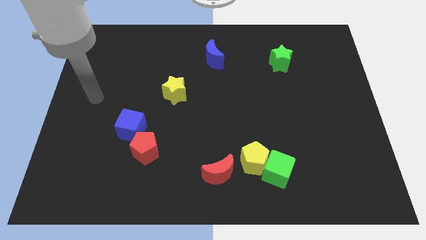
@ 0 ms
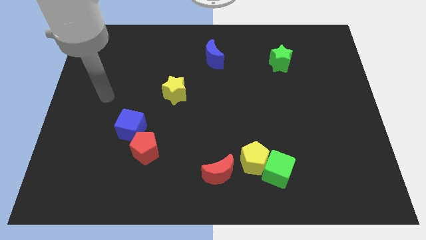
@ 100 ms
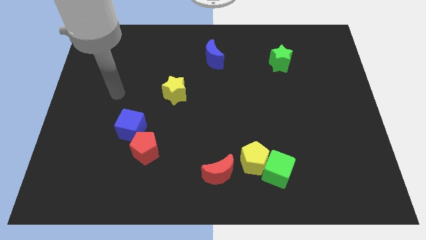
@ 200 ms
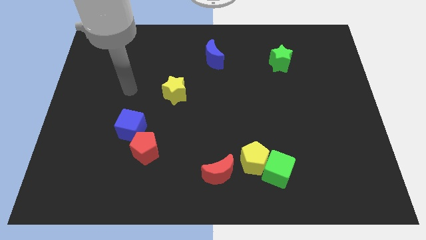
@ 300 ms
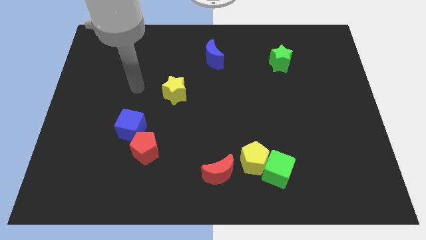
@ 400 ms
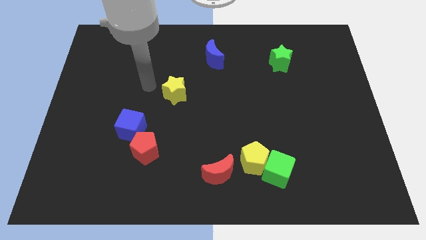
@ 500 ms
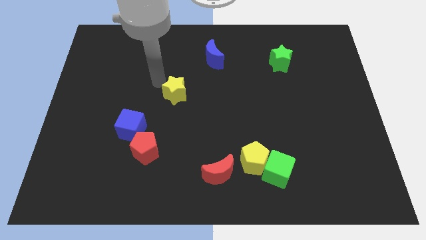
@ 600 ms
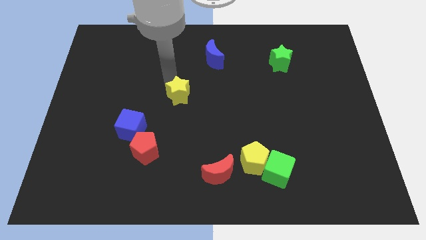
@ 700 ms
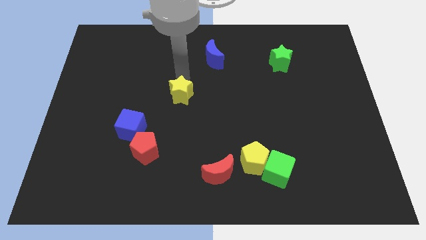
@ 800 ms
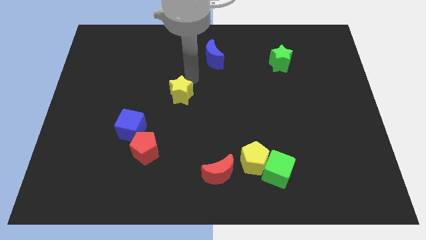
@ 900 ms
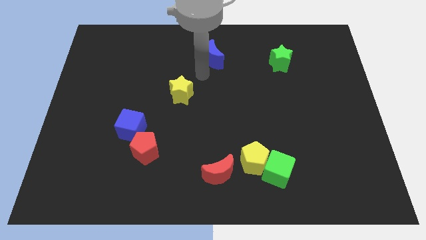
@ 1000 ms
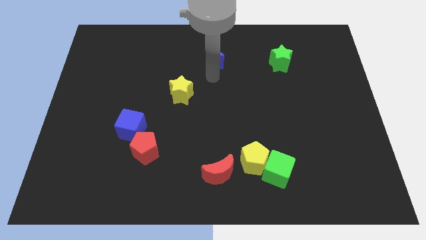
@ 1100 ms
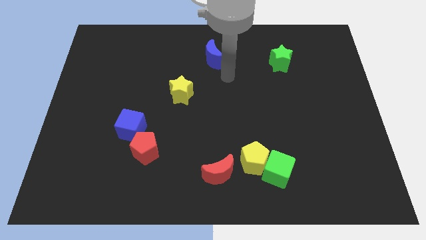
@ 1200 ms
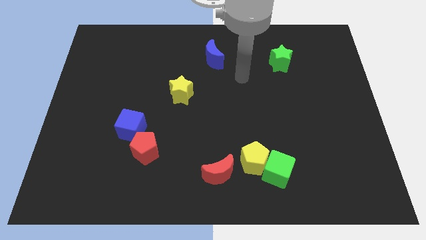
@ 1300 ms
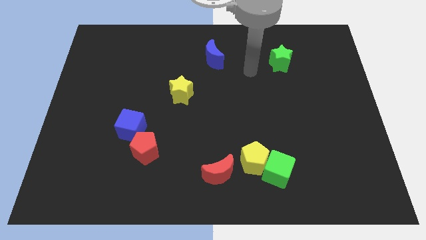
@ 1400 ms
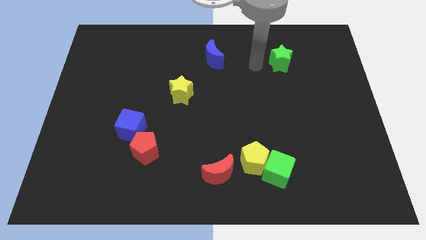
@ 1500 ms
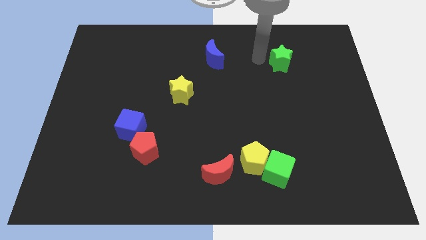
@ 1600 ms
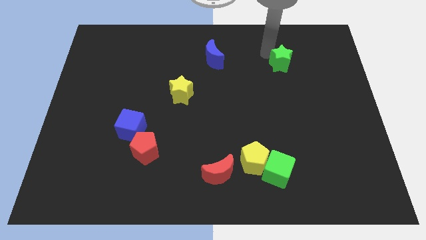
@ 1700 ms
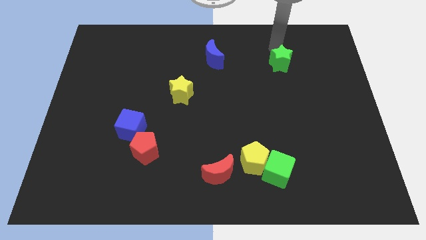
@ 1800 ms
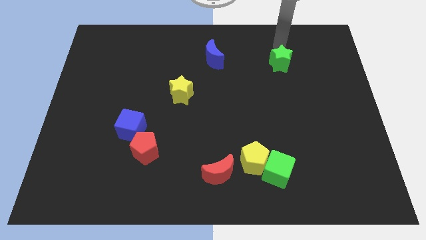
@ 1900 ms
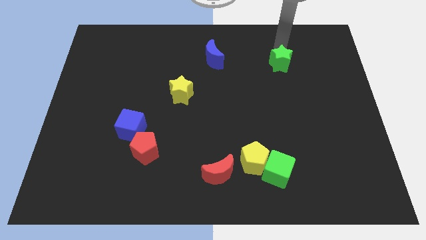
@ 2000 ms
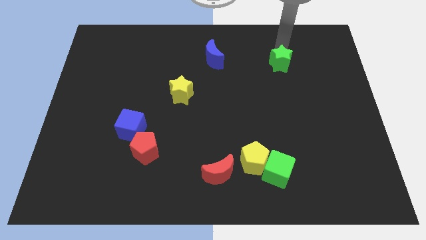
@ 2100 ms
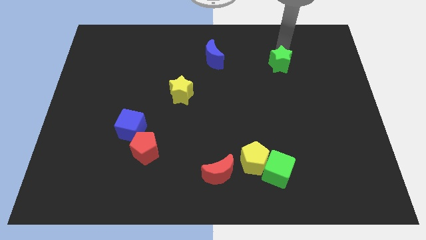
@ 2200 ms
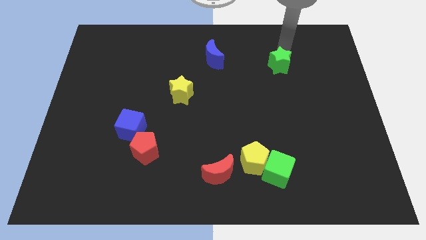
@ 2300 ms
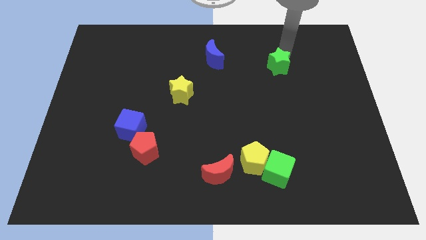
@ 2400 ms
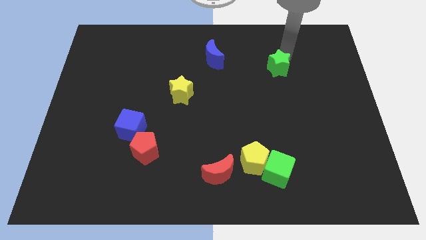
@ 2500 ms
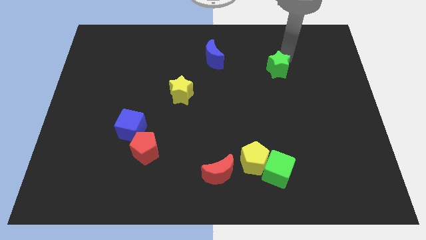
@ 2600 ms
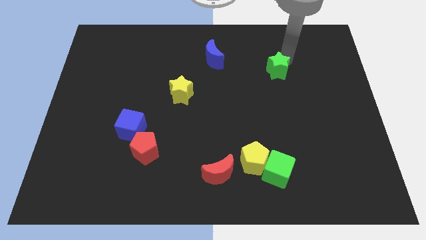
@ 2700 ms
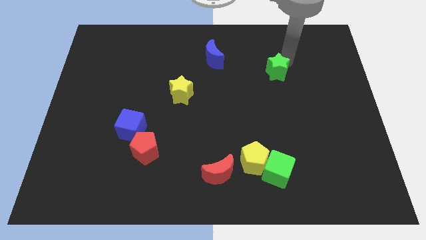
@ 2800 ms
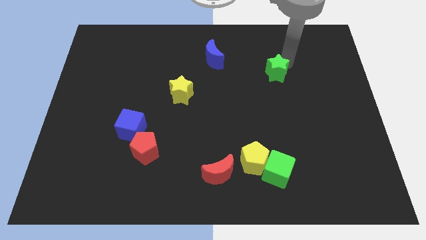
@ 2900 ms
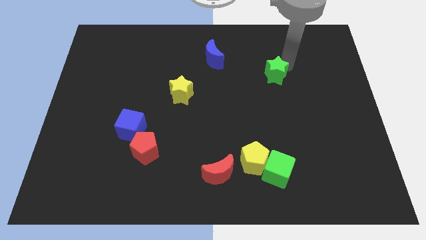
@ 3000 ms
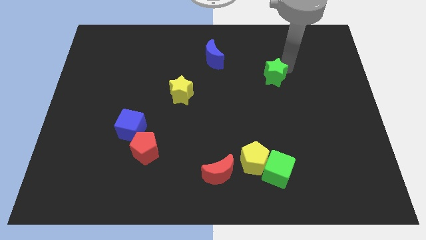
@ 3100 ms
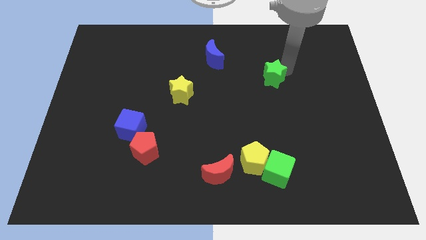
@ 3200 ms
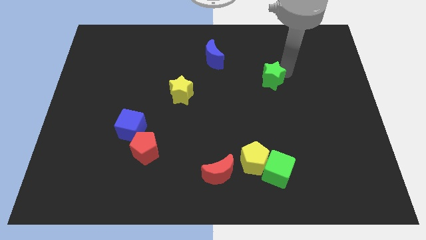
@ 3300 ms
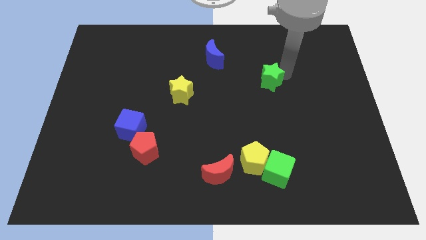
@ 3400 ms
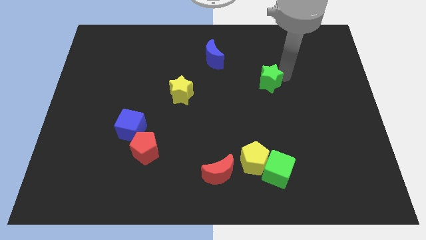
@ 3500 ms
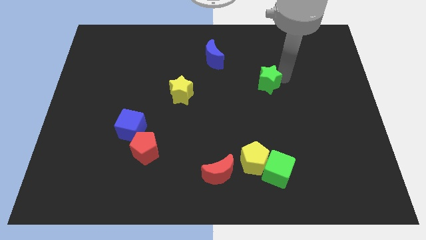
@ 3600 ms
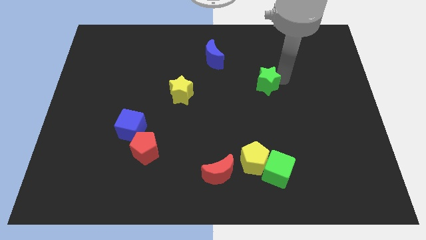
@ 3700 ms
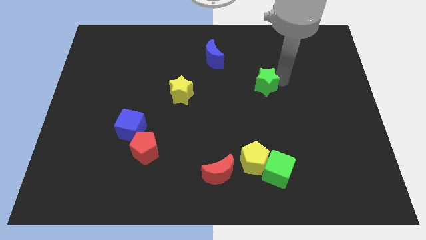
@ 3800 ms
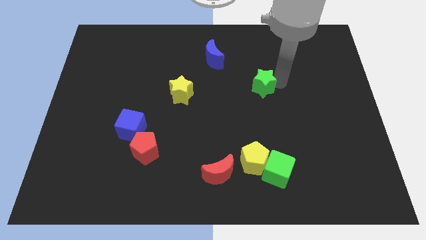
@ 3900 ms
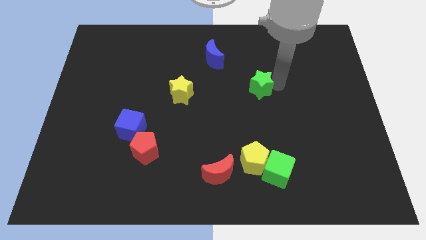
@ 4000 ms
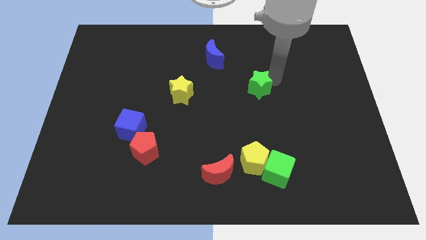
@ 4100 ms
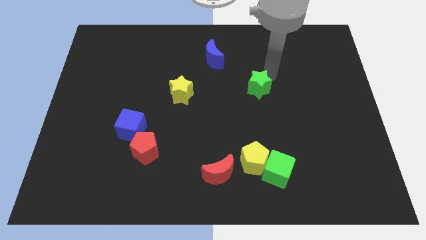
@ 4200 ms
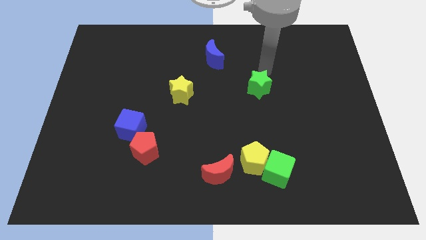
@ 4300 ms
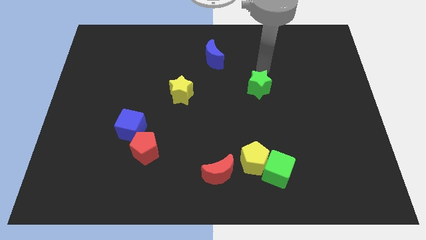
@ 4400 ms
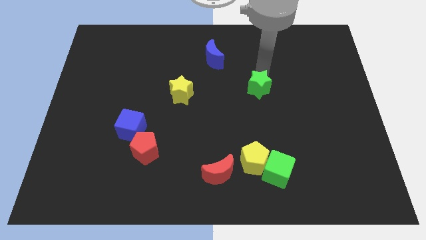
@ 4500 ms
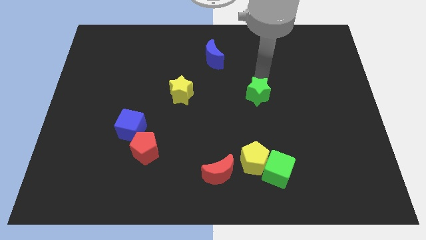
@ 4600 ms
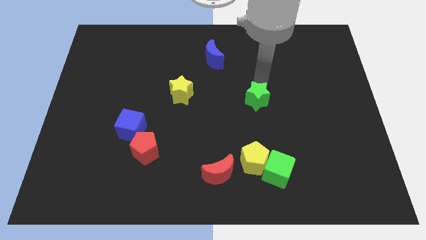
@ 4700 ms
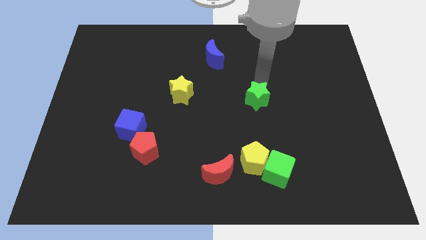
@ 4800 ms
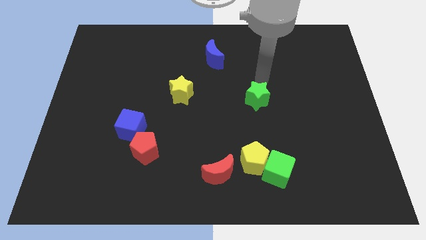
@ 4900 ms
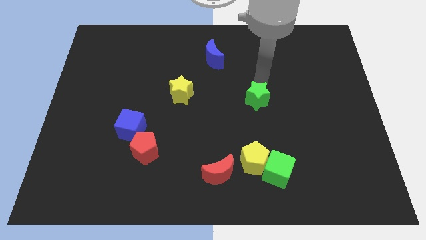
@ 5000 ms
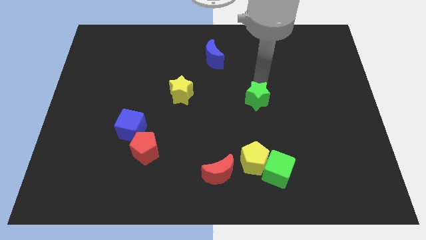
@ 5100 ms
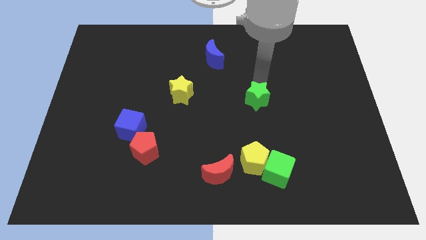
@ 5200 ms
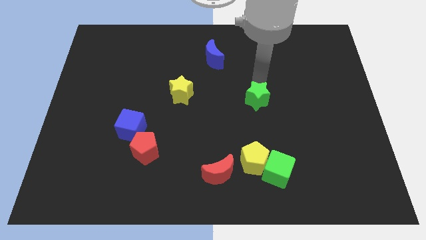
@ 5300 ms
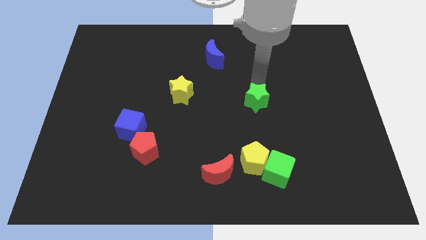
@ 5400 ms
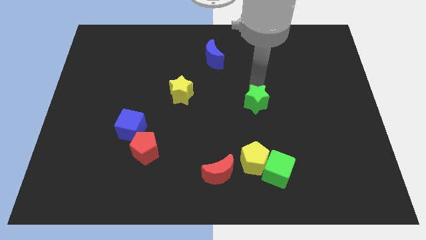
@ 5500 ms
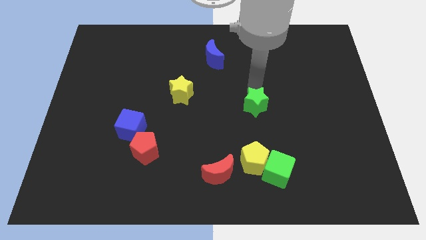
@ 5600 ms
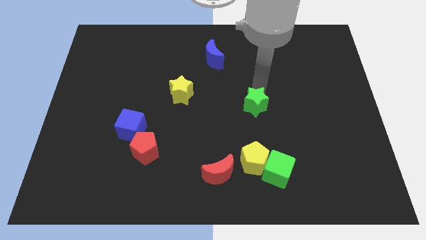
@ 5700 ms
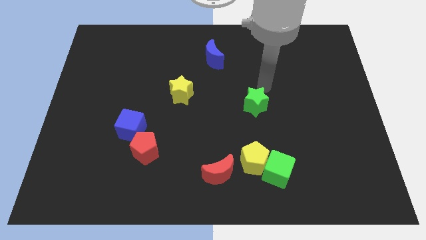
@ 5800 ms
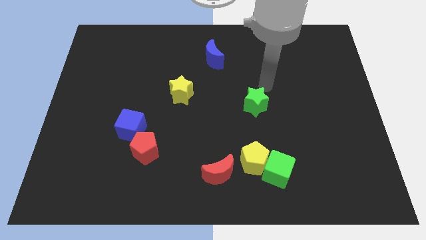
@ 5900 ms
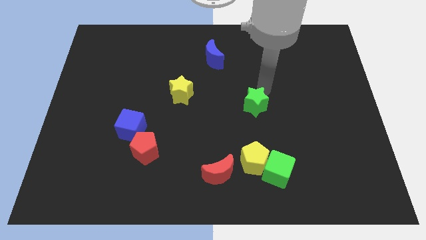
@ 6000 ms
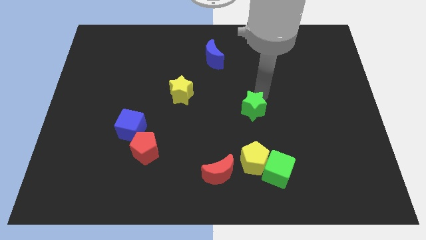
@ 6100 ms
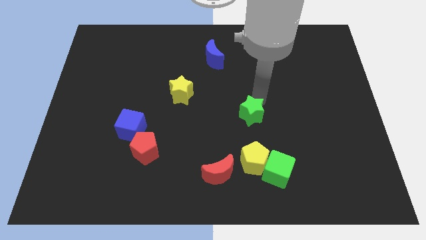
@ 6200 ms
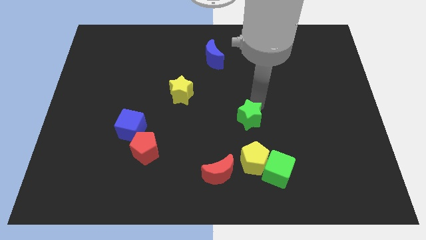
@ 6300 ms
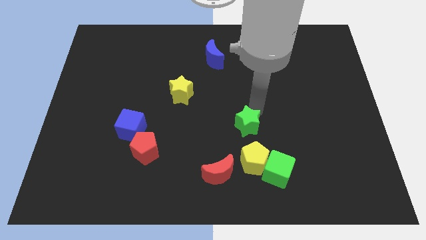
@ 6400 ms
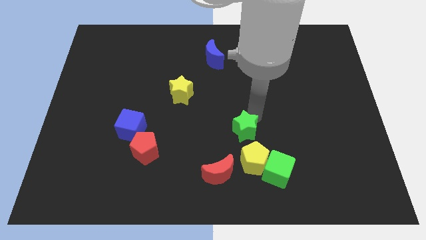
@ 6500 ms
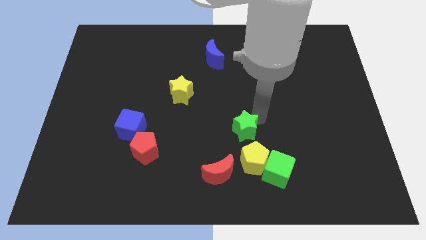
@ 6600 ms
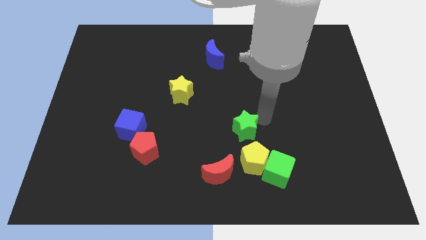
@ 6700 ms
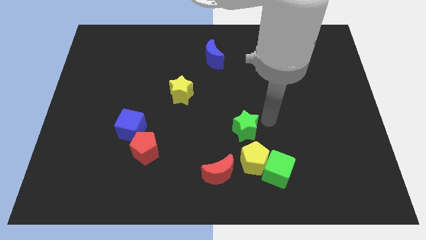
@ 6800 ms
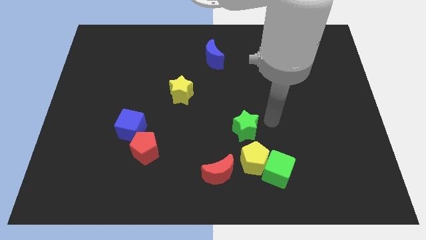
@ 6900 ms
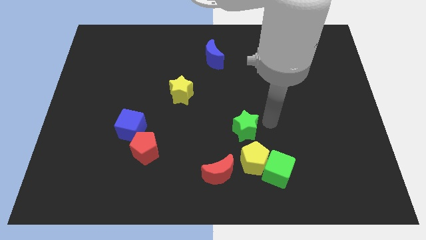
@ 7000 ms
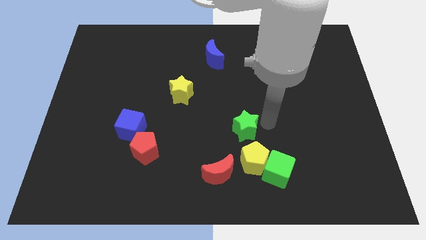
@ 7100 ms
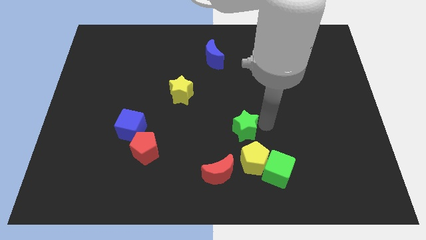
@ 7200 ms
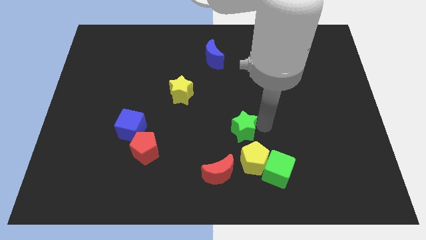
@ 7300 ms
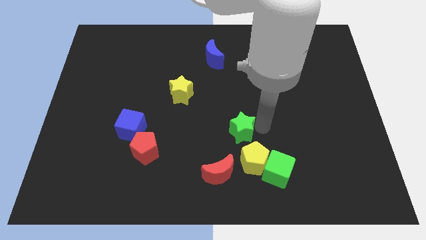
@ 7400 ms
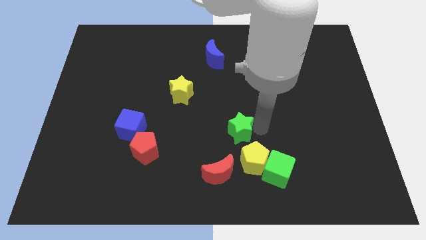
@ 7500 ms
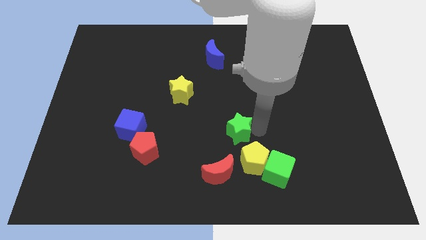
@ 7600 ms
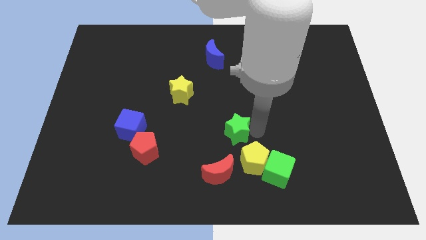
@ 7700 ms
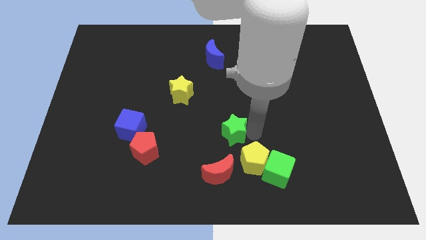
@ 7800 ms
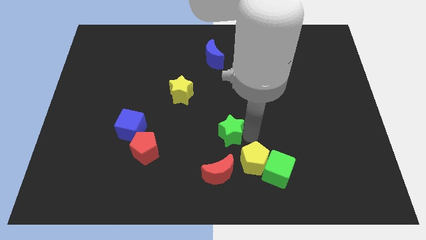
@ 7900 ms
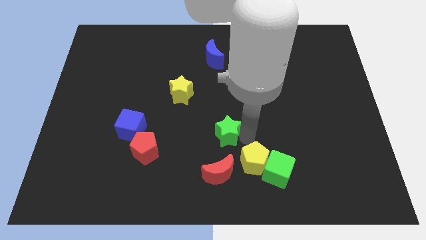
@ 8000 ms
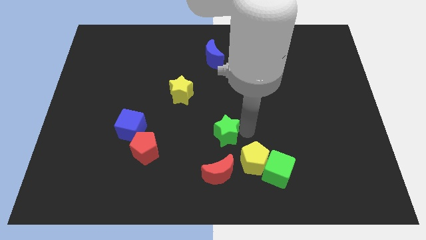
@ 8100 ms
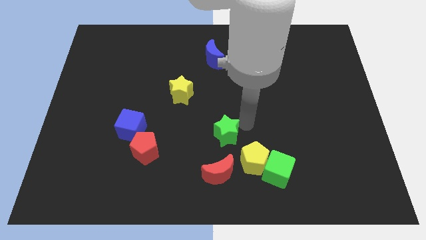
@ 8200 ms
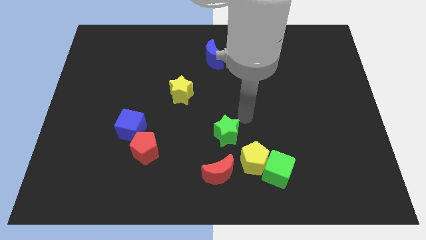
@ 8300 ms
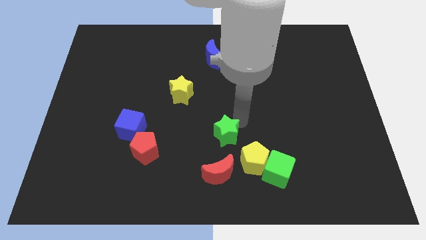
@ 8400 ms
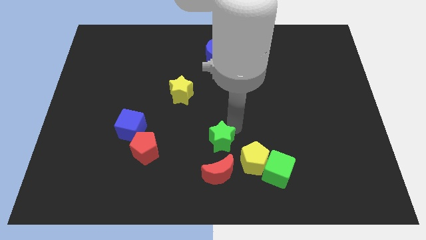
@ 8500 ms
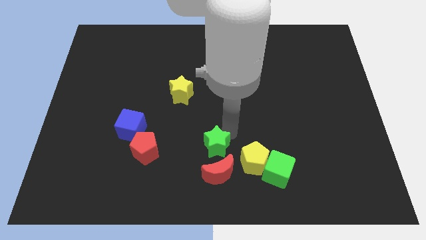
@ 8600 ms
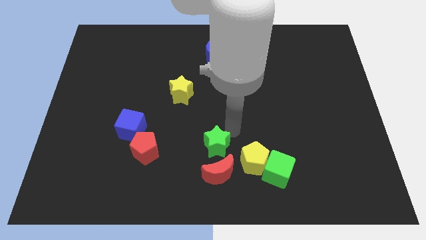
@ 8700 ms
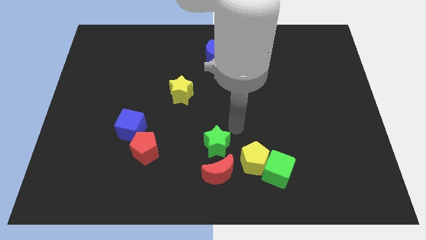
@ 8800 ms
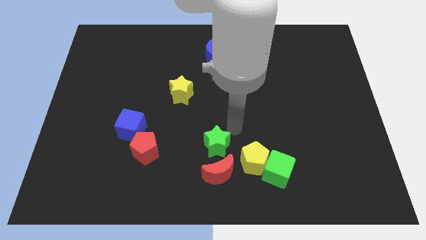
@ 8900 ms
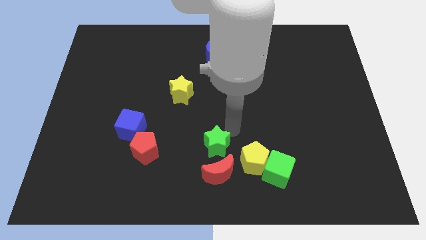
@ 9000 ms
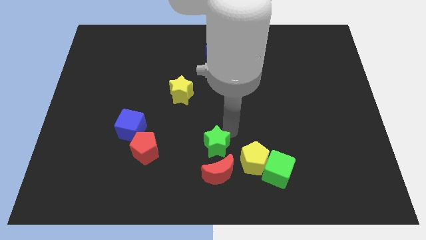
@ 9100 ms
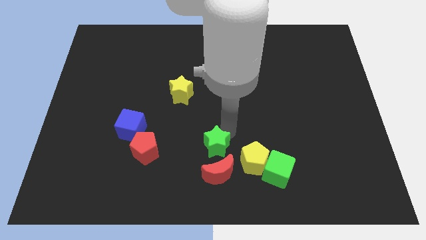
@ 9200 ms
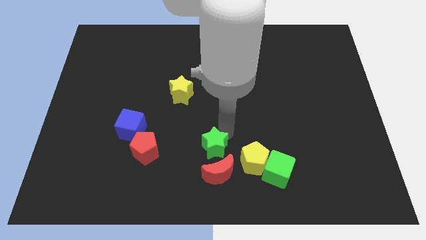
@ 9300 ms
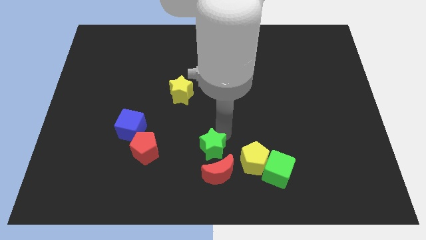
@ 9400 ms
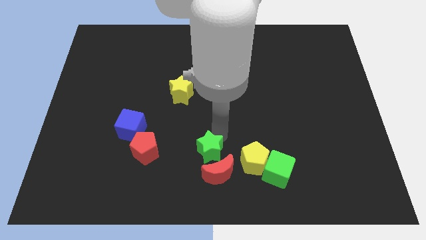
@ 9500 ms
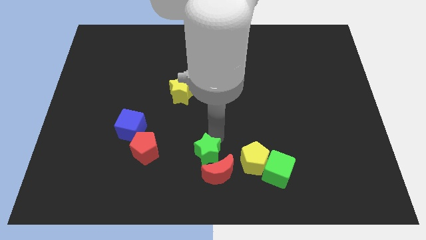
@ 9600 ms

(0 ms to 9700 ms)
put the green star to the bottom side
